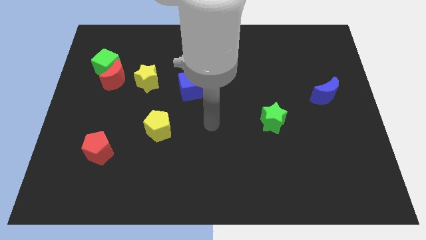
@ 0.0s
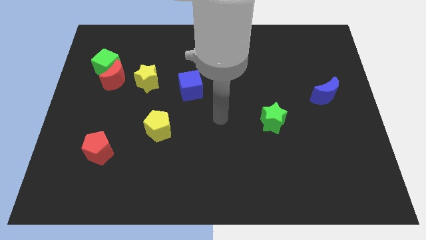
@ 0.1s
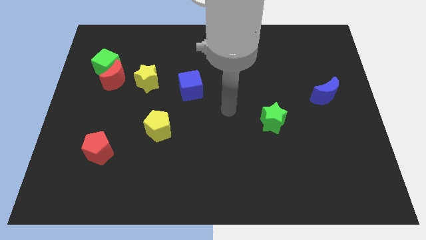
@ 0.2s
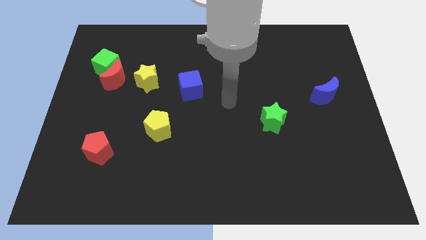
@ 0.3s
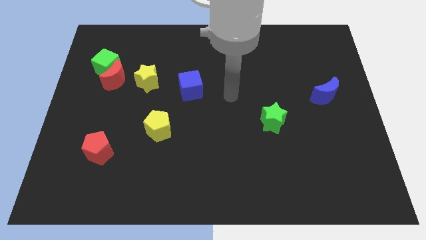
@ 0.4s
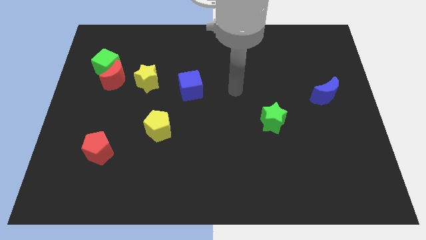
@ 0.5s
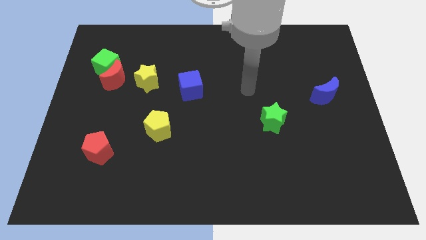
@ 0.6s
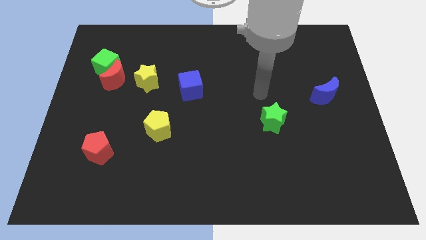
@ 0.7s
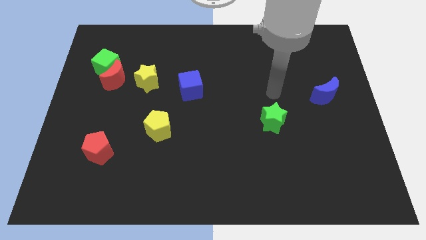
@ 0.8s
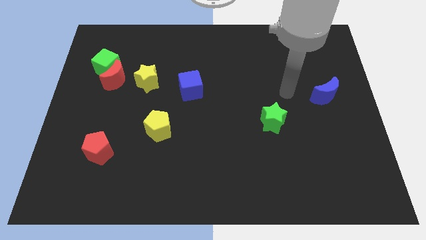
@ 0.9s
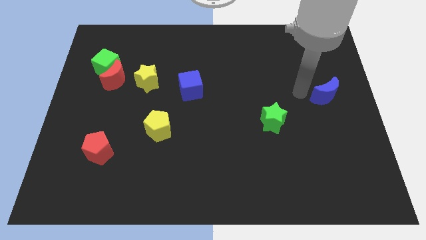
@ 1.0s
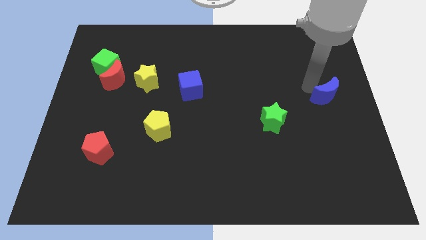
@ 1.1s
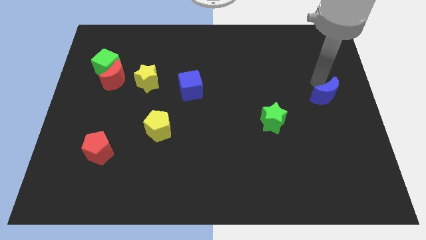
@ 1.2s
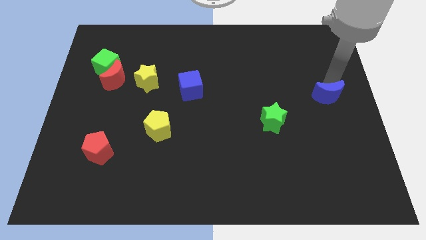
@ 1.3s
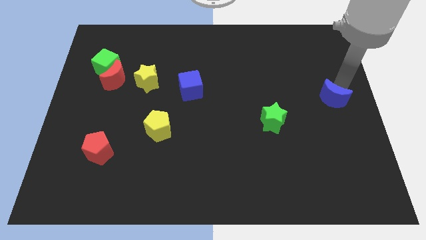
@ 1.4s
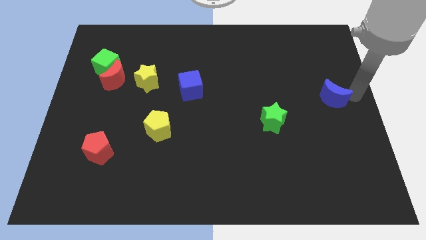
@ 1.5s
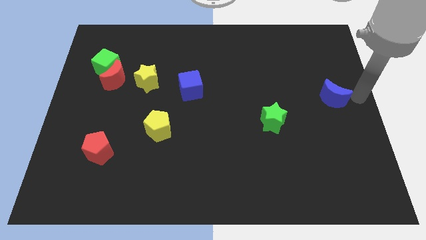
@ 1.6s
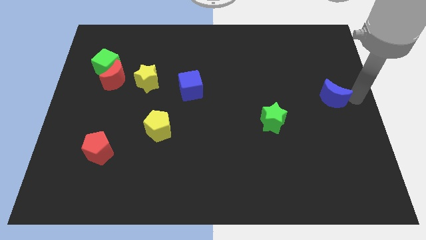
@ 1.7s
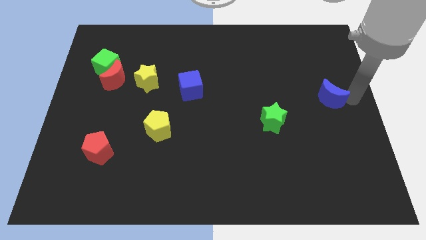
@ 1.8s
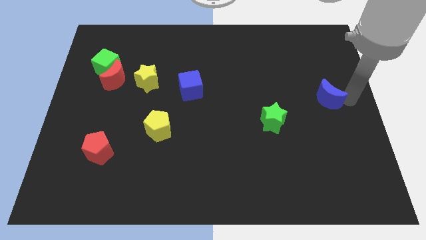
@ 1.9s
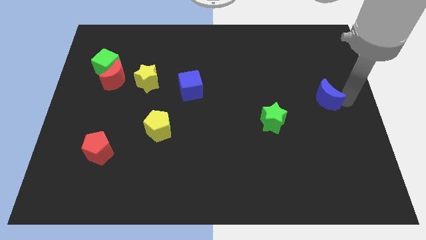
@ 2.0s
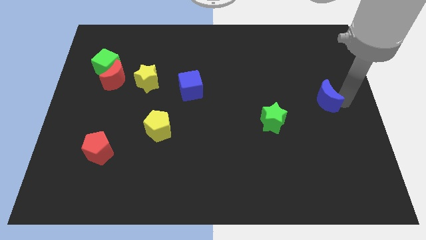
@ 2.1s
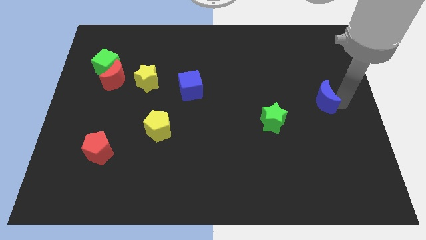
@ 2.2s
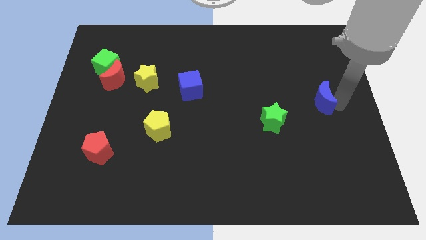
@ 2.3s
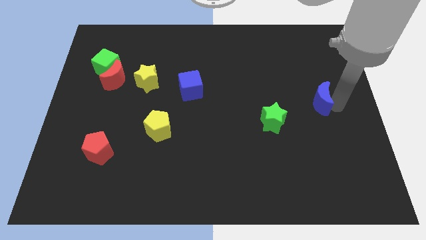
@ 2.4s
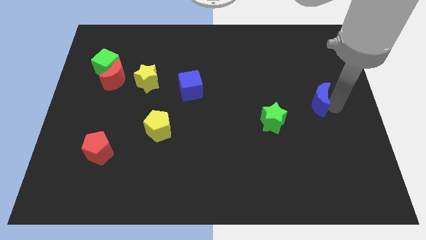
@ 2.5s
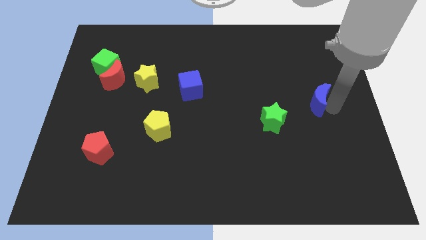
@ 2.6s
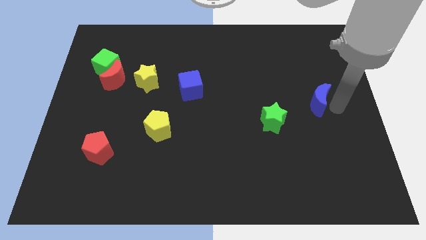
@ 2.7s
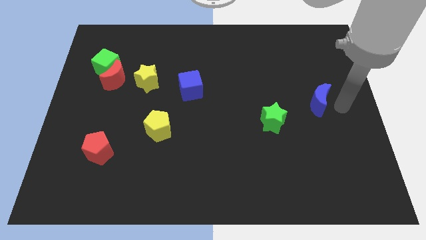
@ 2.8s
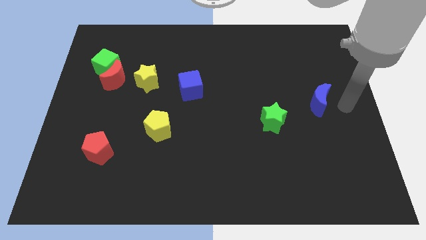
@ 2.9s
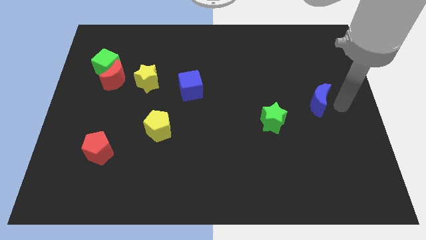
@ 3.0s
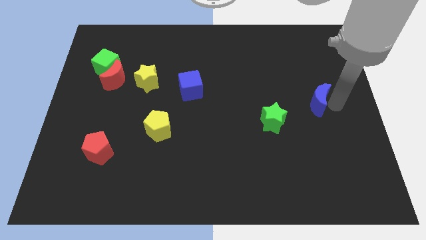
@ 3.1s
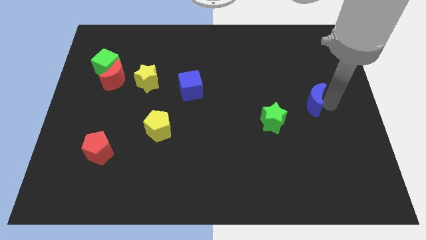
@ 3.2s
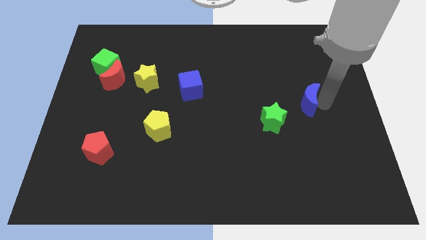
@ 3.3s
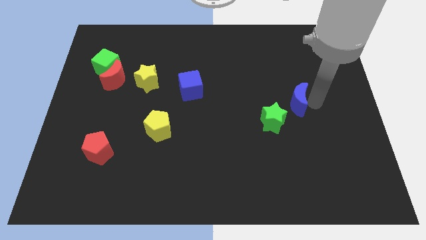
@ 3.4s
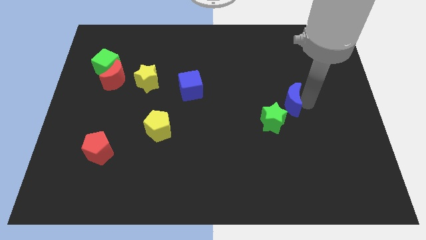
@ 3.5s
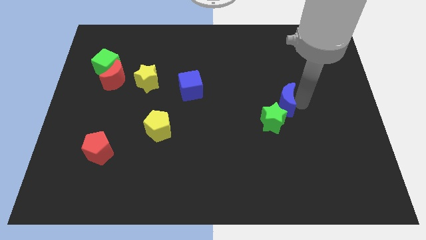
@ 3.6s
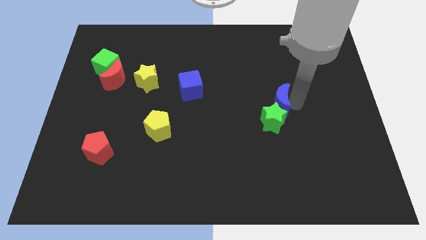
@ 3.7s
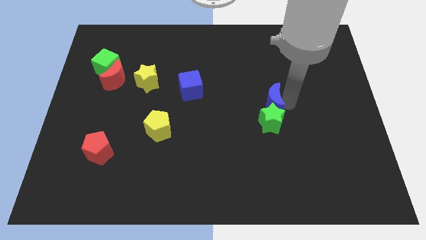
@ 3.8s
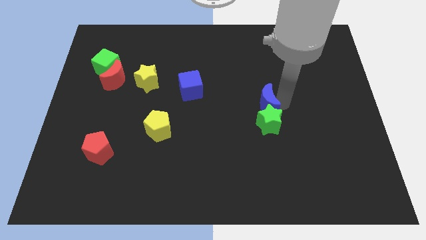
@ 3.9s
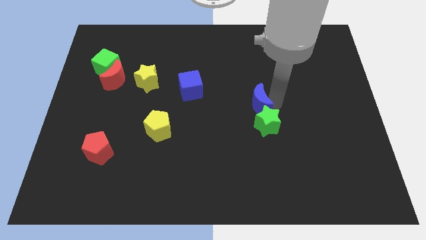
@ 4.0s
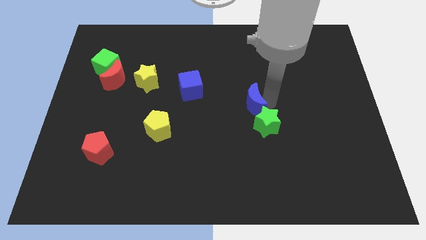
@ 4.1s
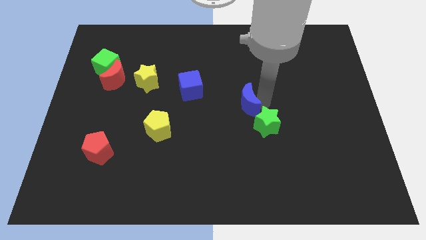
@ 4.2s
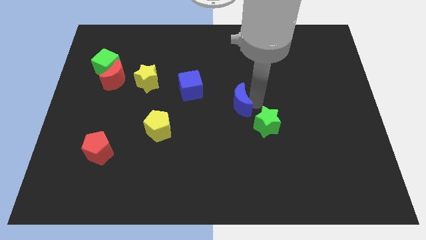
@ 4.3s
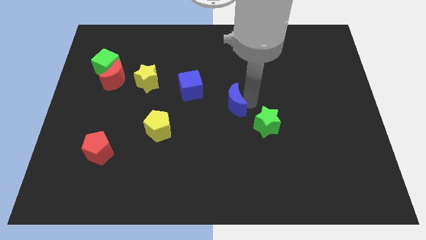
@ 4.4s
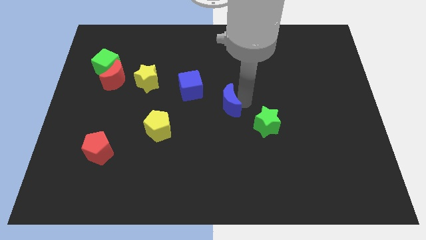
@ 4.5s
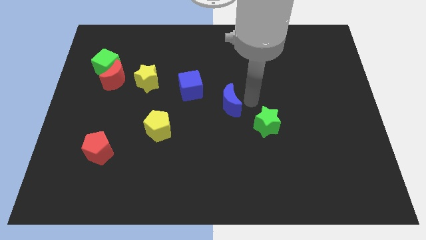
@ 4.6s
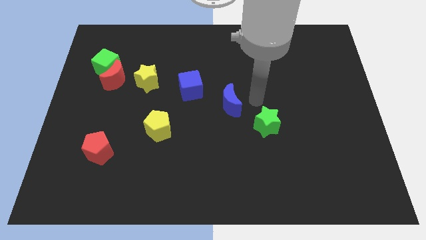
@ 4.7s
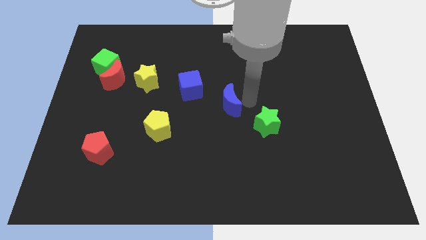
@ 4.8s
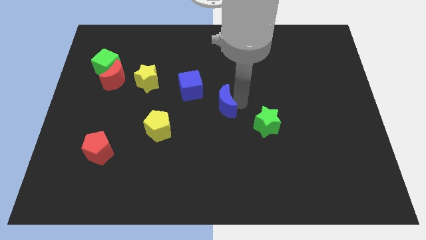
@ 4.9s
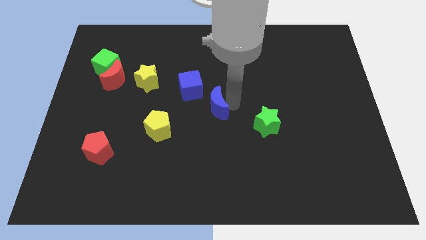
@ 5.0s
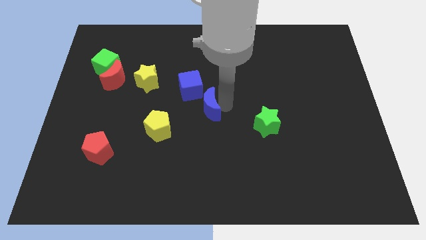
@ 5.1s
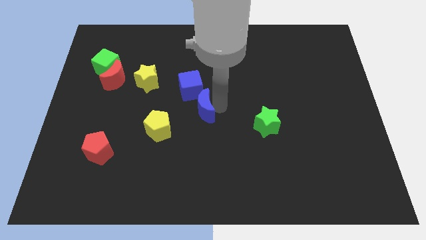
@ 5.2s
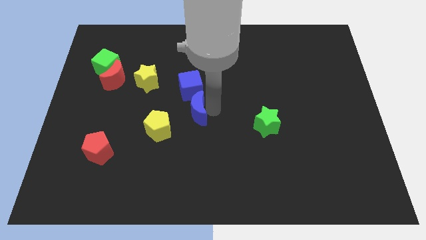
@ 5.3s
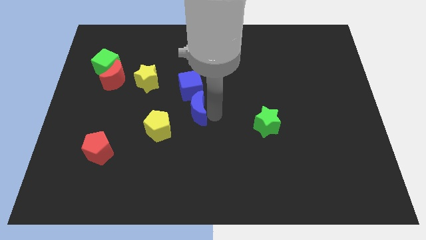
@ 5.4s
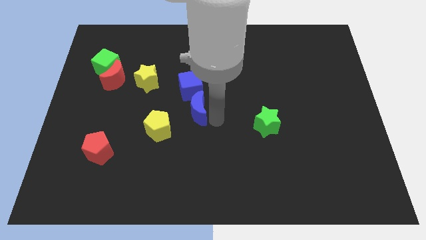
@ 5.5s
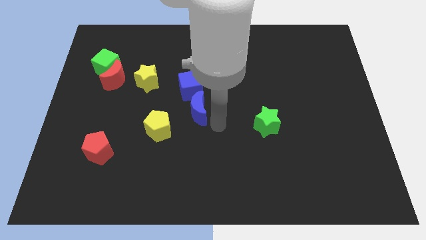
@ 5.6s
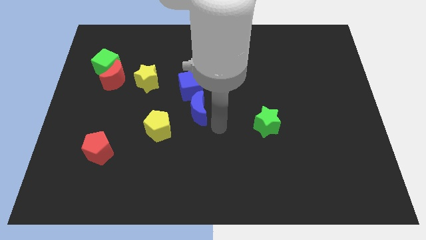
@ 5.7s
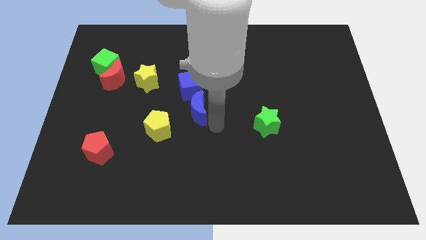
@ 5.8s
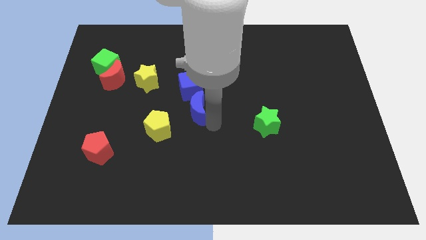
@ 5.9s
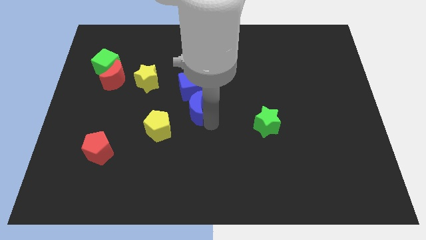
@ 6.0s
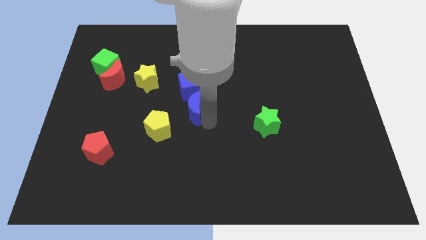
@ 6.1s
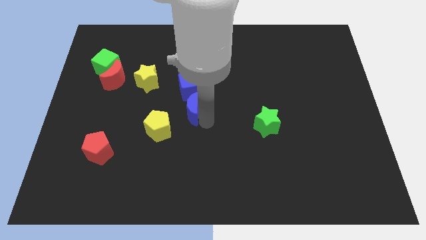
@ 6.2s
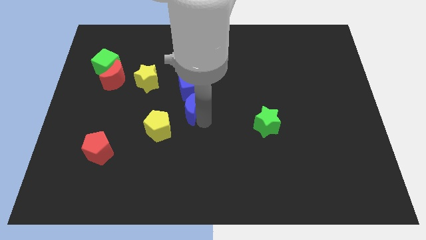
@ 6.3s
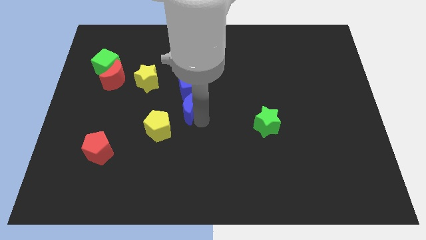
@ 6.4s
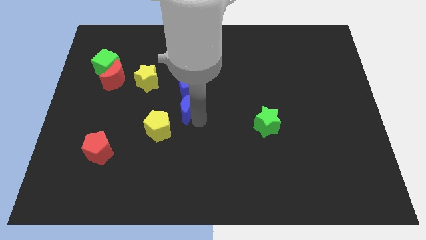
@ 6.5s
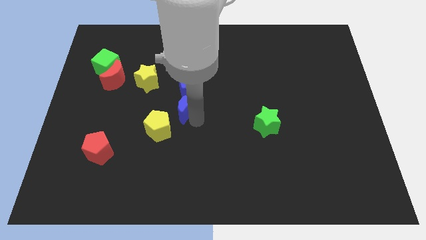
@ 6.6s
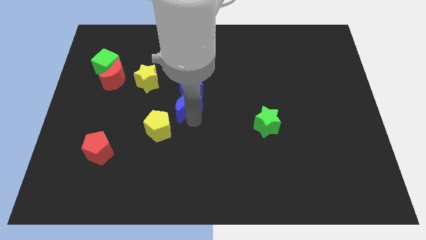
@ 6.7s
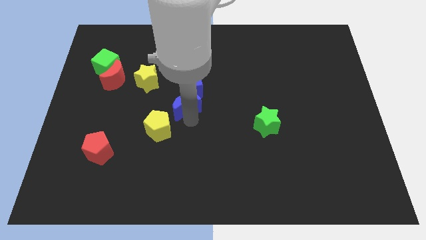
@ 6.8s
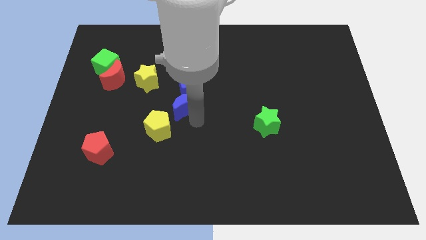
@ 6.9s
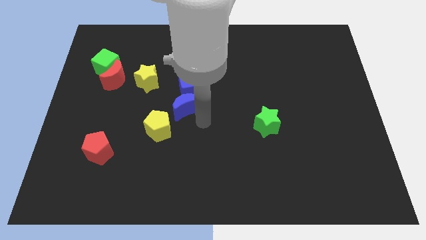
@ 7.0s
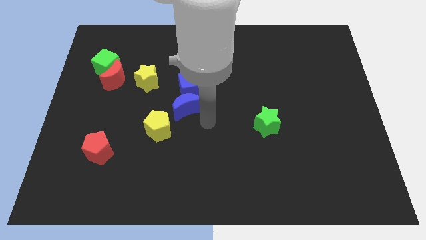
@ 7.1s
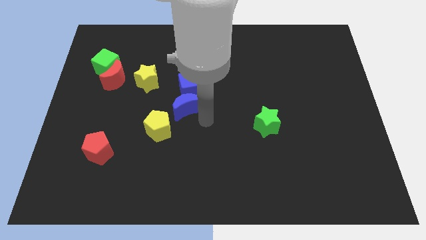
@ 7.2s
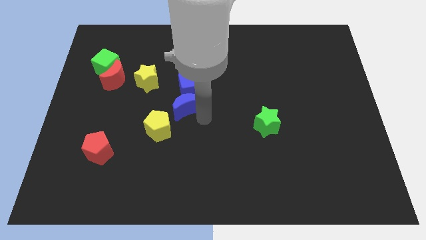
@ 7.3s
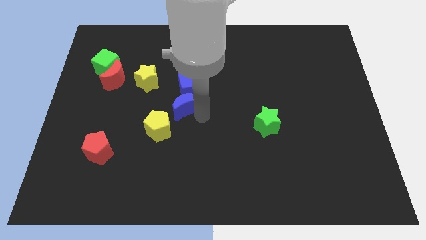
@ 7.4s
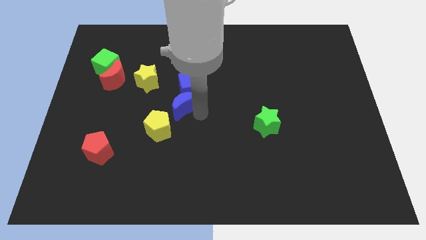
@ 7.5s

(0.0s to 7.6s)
put the blue moon to the bottom right side of the yellow star

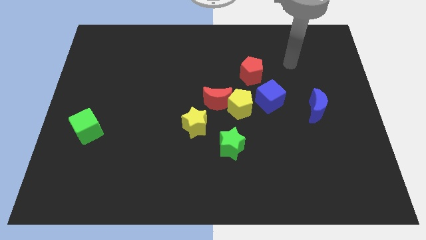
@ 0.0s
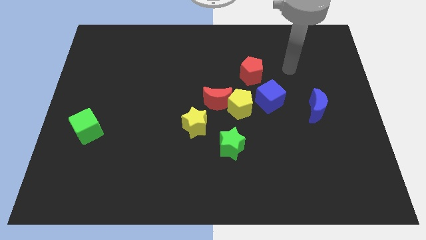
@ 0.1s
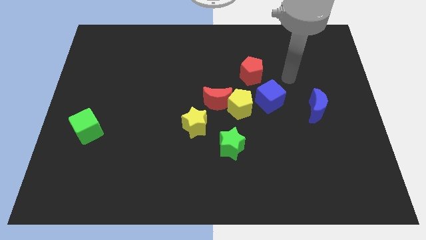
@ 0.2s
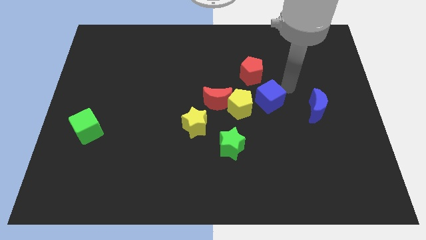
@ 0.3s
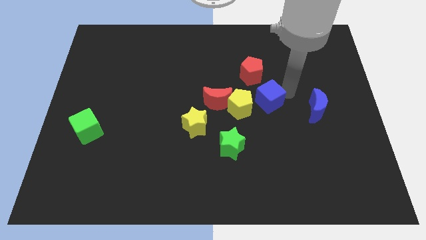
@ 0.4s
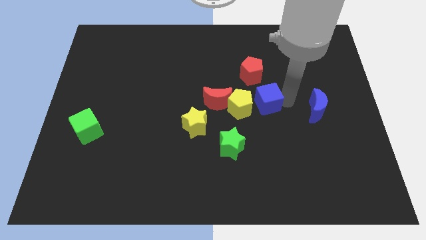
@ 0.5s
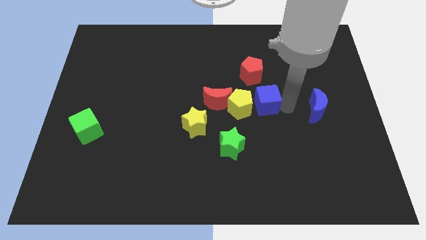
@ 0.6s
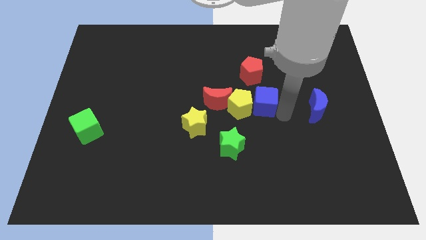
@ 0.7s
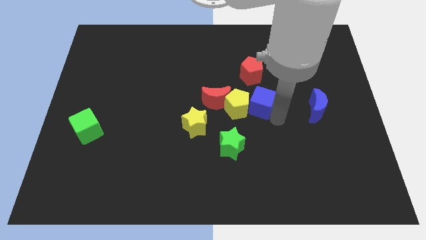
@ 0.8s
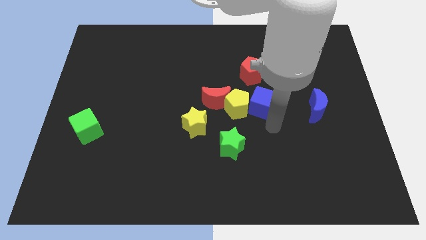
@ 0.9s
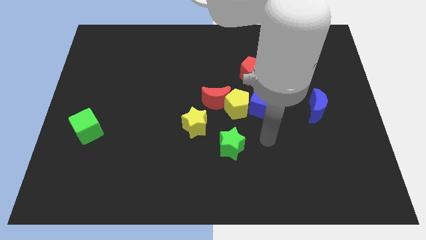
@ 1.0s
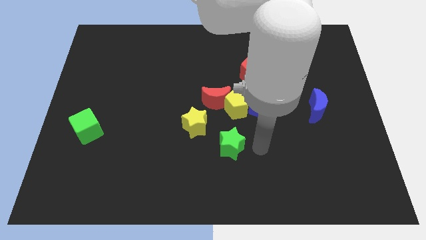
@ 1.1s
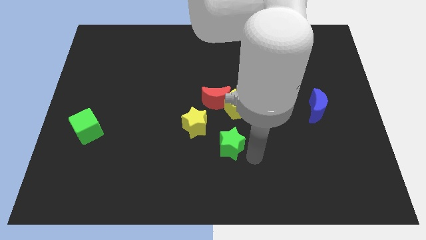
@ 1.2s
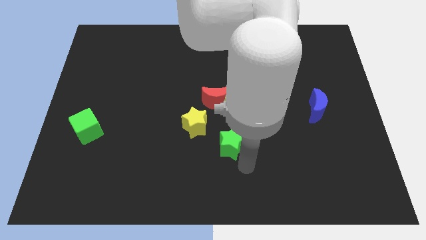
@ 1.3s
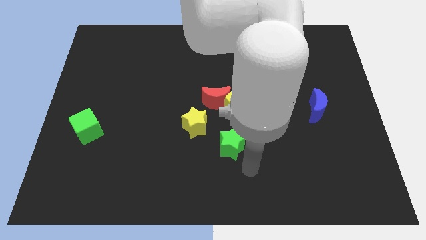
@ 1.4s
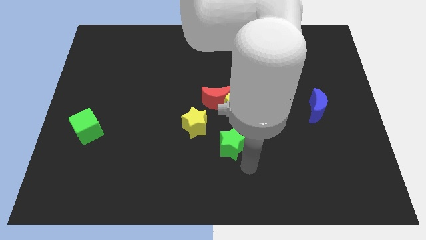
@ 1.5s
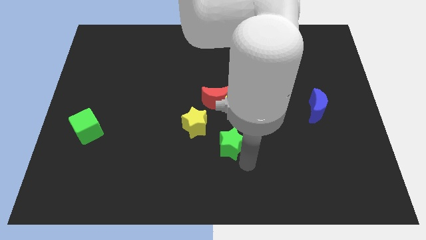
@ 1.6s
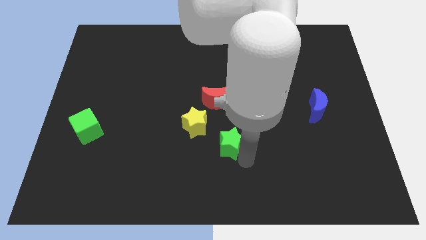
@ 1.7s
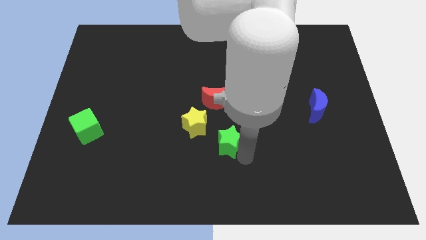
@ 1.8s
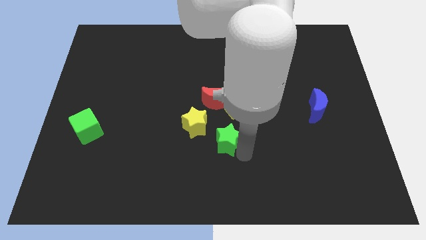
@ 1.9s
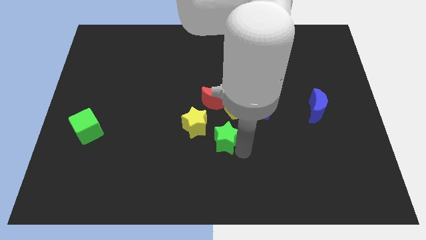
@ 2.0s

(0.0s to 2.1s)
put the green star to the bottom left side of the yellow pentagon
